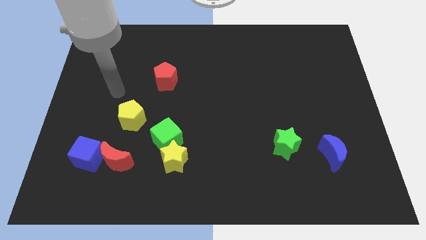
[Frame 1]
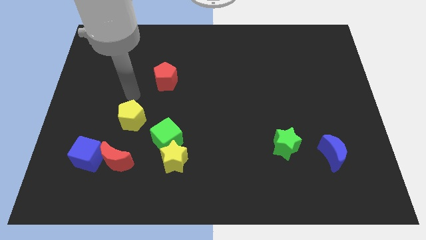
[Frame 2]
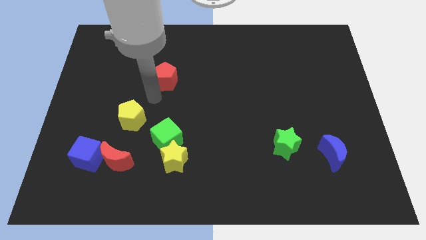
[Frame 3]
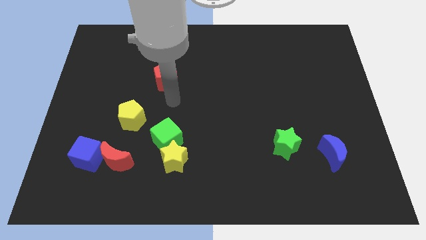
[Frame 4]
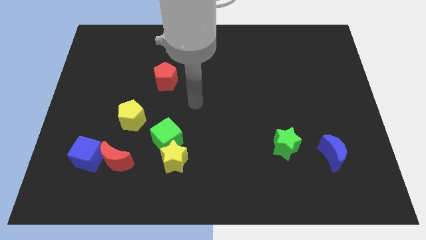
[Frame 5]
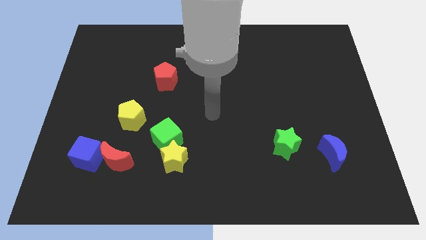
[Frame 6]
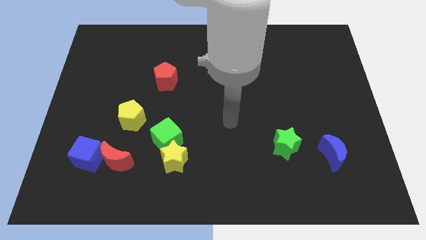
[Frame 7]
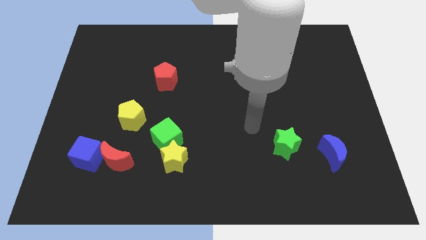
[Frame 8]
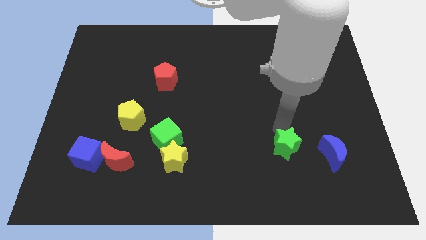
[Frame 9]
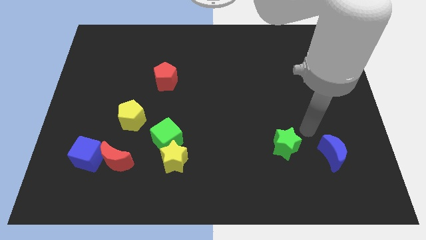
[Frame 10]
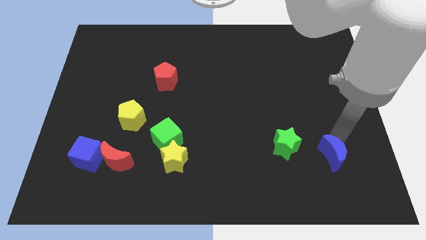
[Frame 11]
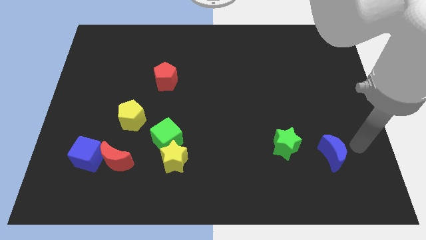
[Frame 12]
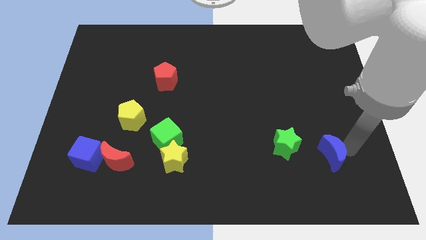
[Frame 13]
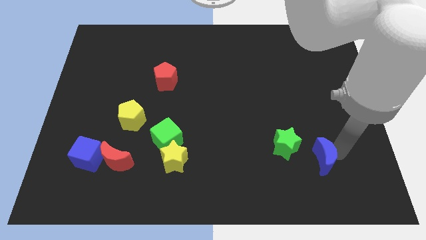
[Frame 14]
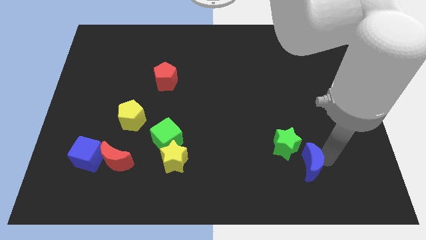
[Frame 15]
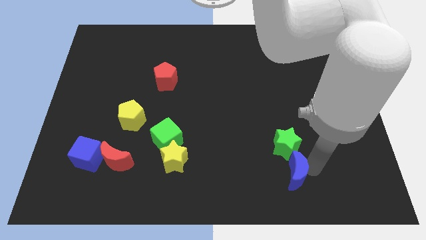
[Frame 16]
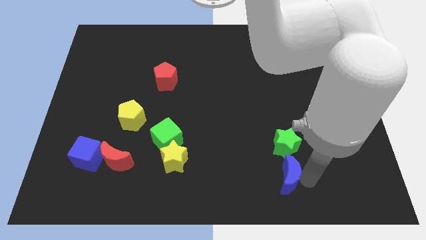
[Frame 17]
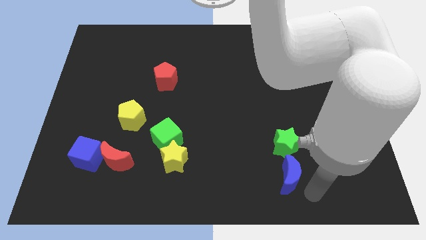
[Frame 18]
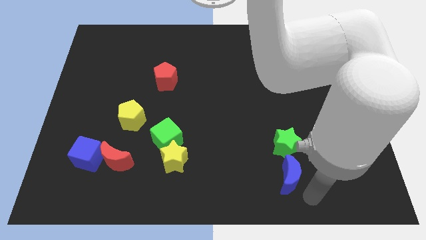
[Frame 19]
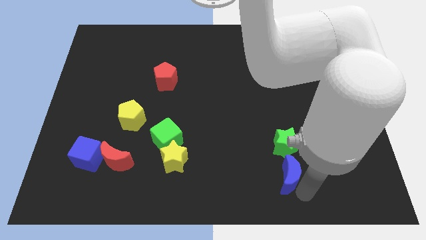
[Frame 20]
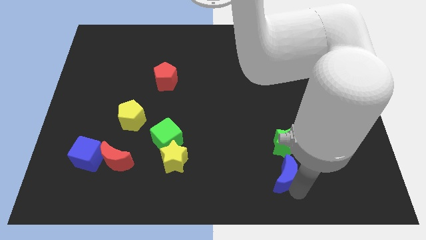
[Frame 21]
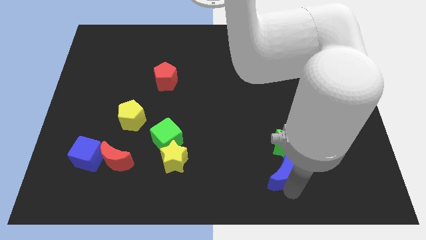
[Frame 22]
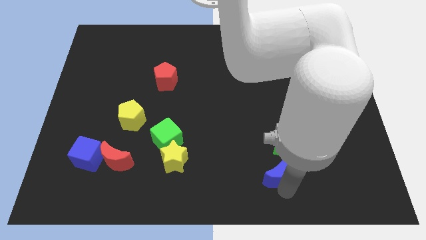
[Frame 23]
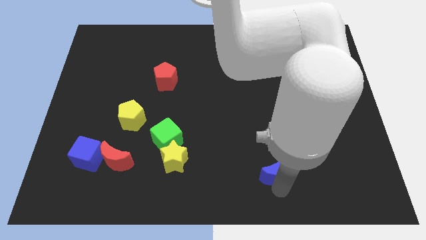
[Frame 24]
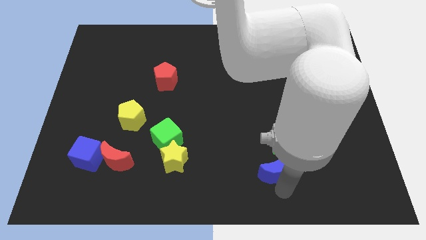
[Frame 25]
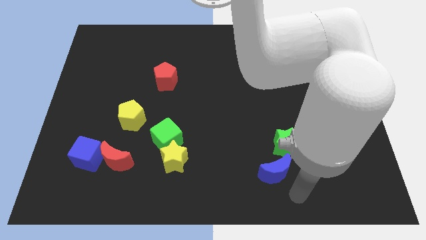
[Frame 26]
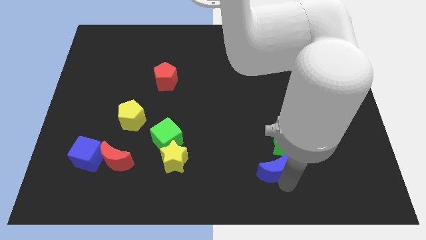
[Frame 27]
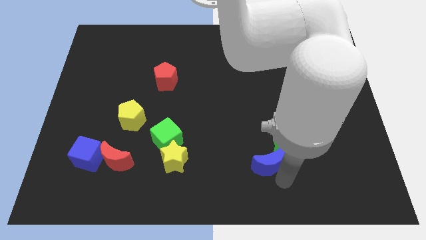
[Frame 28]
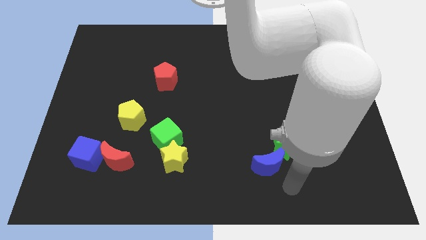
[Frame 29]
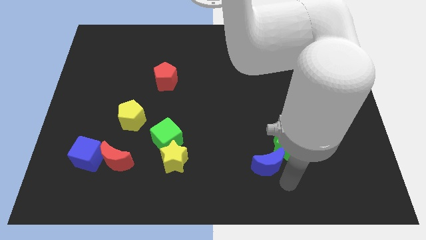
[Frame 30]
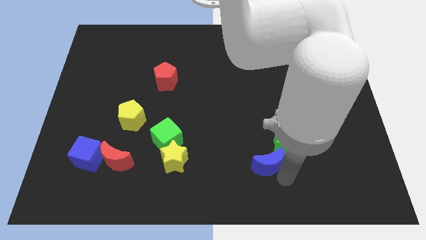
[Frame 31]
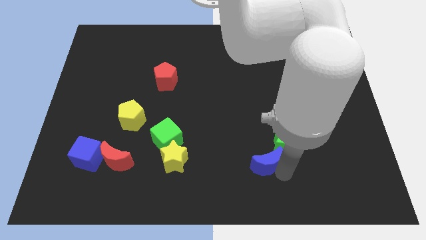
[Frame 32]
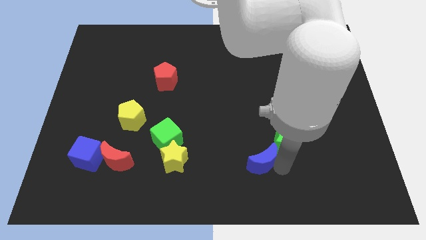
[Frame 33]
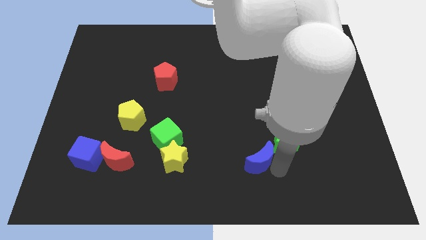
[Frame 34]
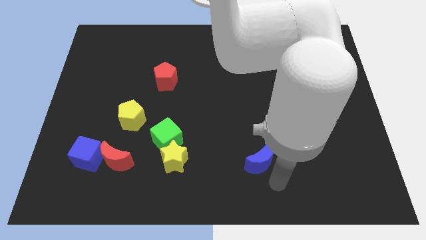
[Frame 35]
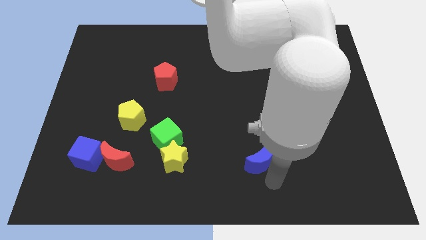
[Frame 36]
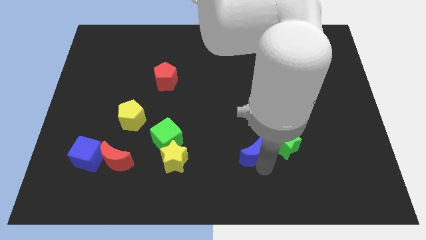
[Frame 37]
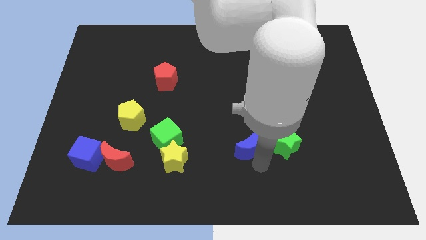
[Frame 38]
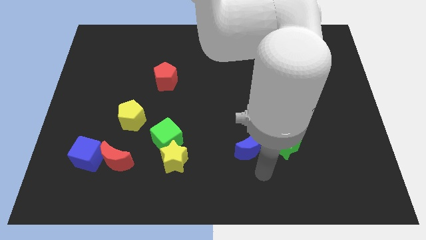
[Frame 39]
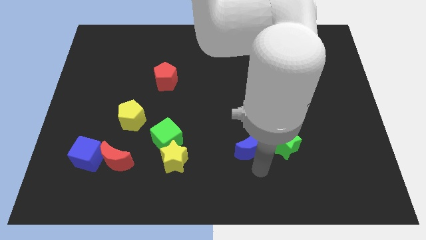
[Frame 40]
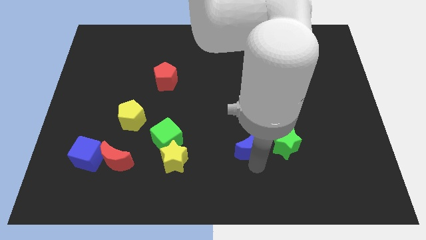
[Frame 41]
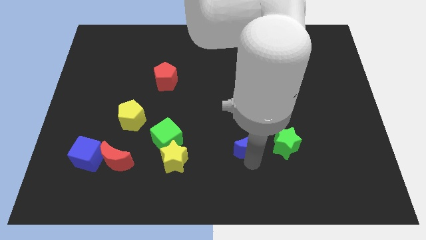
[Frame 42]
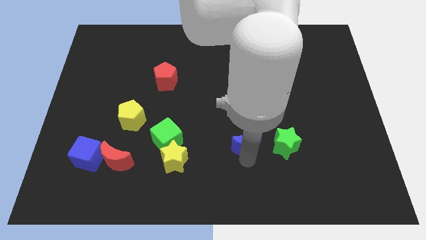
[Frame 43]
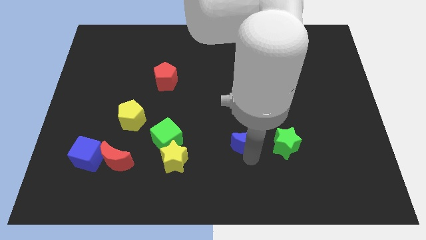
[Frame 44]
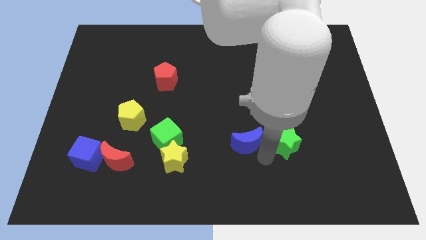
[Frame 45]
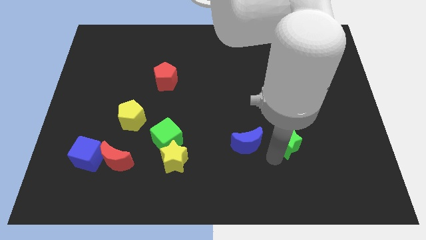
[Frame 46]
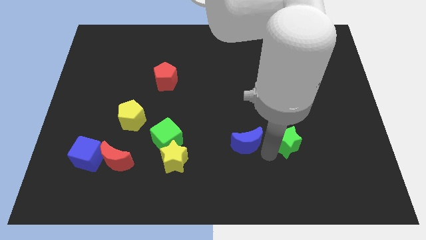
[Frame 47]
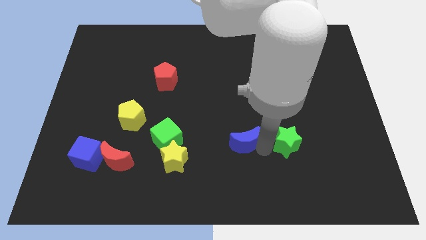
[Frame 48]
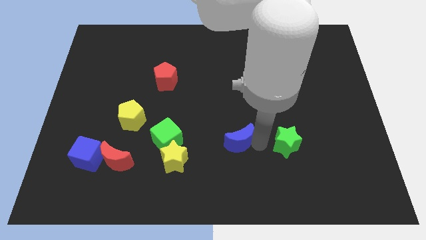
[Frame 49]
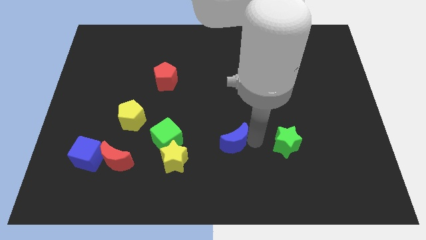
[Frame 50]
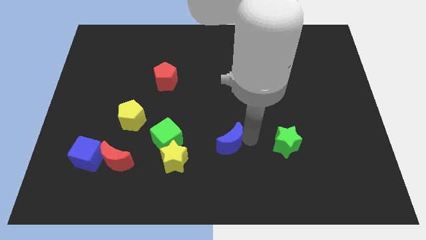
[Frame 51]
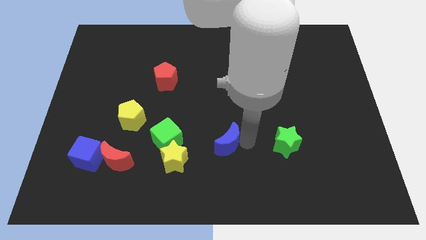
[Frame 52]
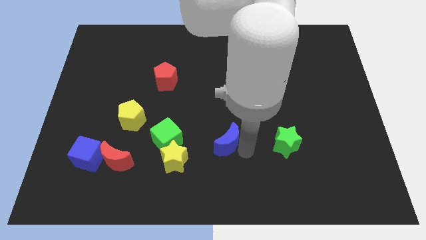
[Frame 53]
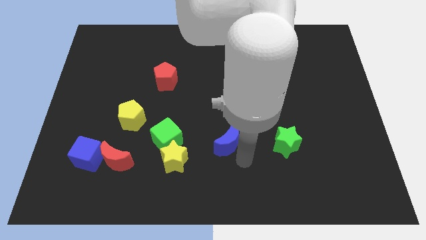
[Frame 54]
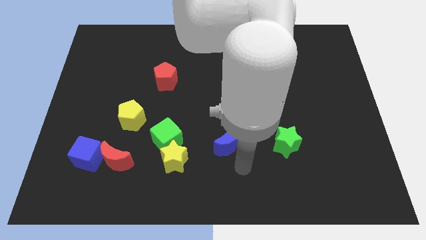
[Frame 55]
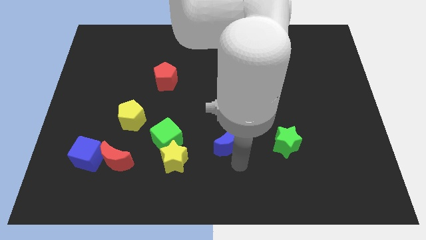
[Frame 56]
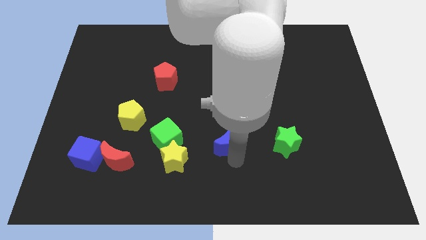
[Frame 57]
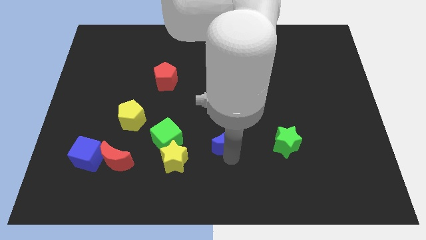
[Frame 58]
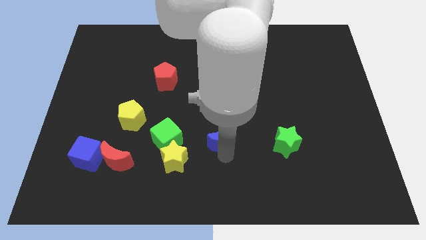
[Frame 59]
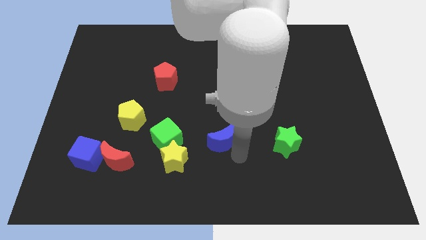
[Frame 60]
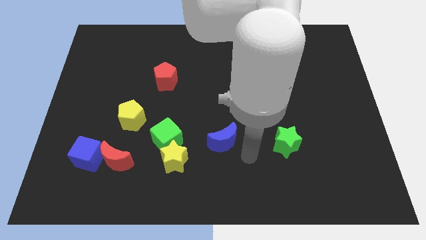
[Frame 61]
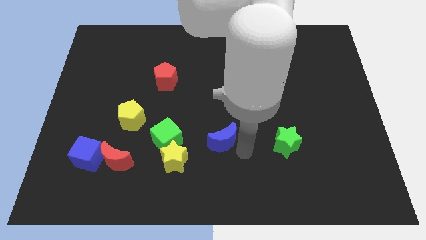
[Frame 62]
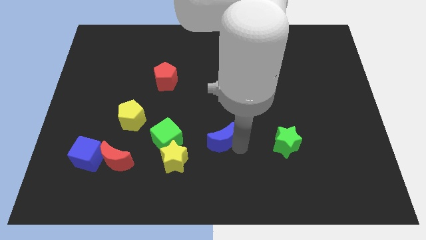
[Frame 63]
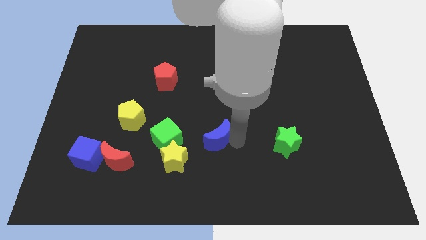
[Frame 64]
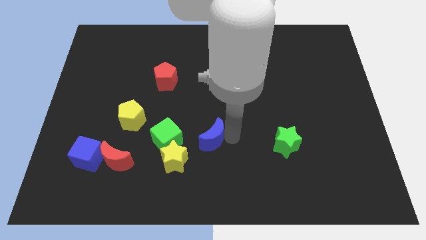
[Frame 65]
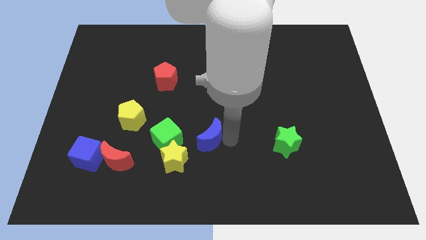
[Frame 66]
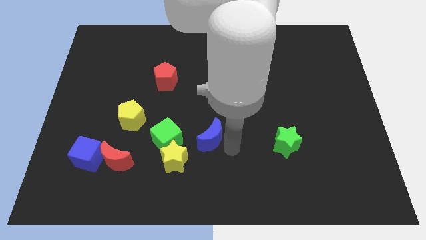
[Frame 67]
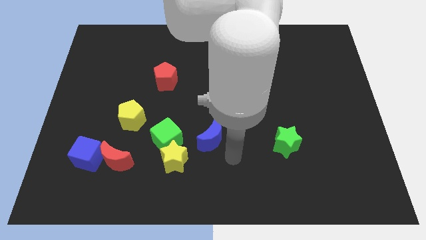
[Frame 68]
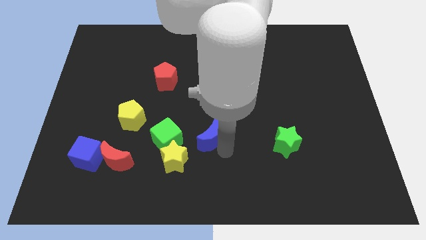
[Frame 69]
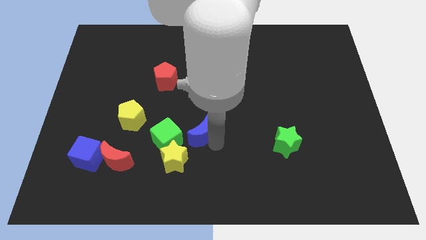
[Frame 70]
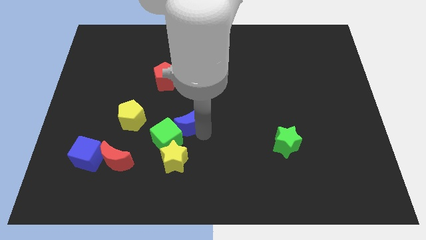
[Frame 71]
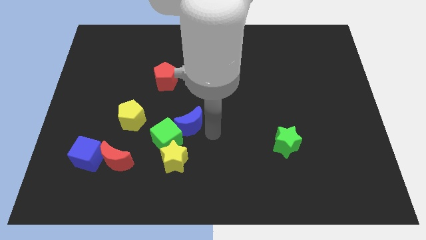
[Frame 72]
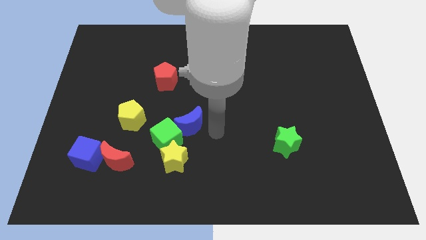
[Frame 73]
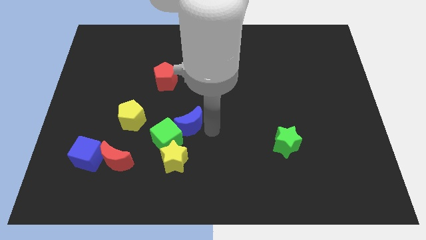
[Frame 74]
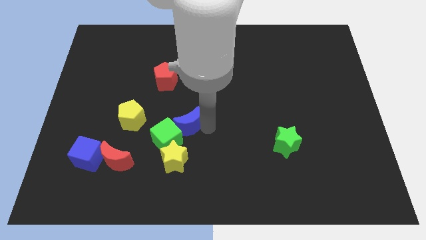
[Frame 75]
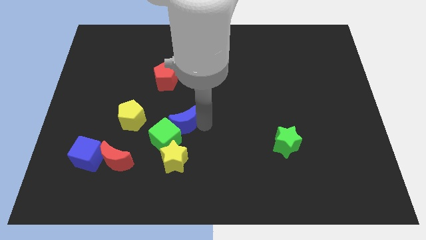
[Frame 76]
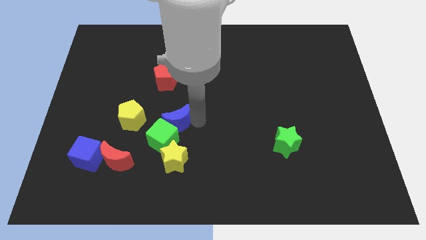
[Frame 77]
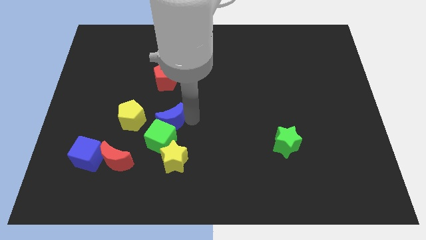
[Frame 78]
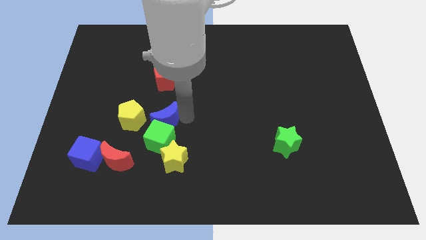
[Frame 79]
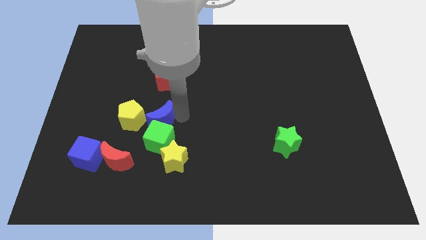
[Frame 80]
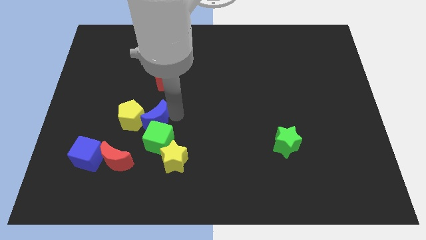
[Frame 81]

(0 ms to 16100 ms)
slide the blue moon towards the yellow pentagon

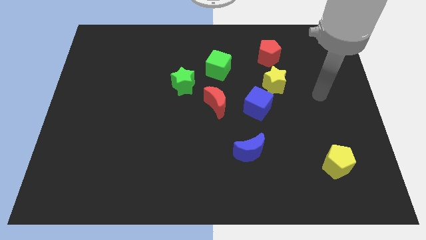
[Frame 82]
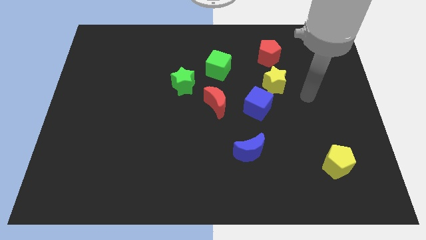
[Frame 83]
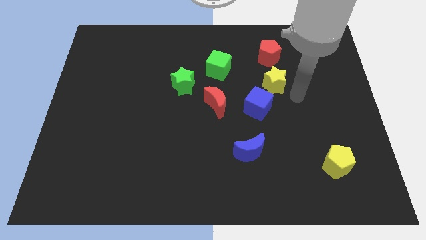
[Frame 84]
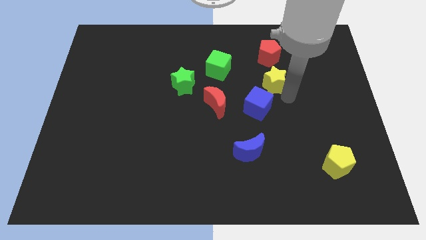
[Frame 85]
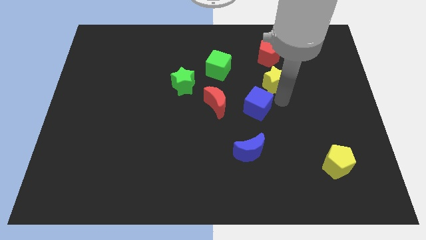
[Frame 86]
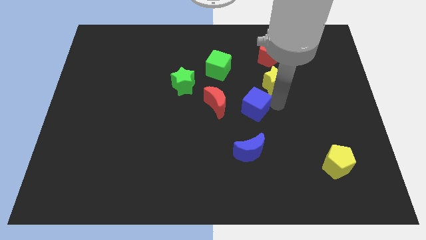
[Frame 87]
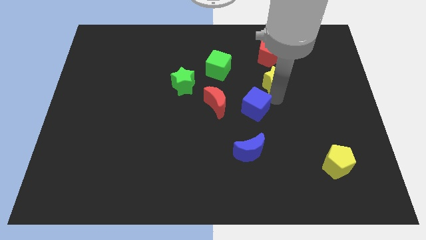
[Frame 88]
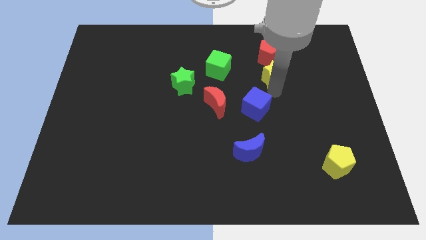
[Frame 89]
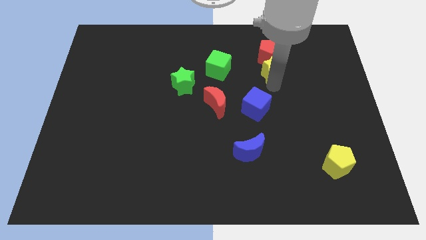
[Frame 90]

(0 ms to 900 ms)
put the yellow star next to the red pentagon
